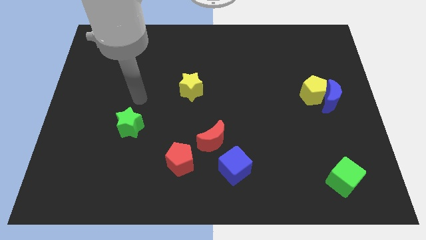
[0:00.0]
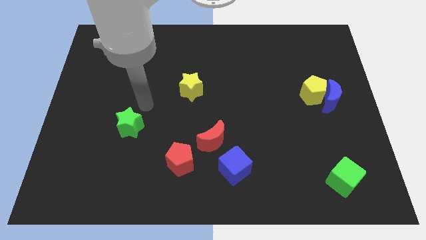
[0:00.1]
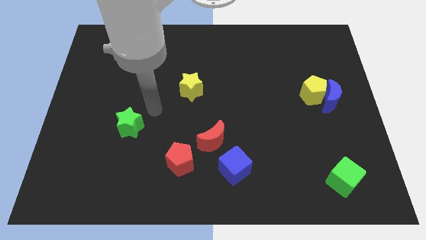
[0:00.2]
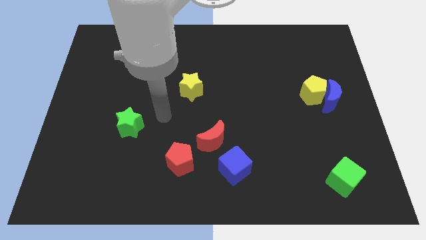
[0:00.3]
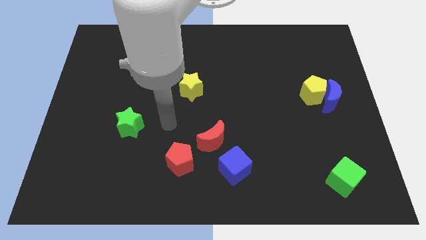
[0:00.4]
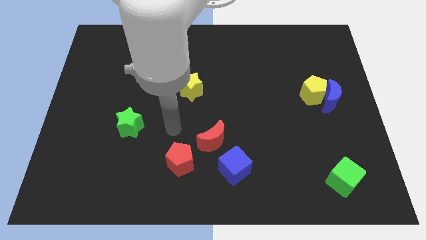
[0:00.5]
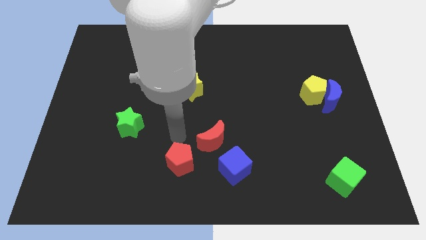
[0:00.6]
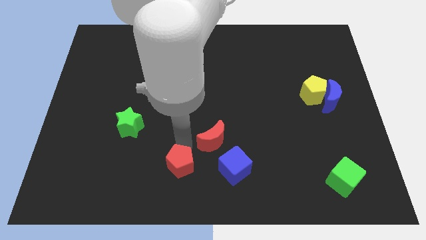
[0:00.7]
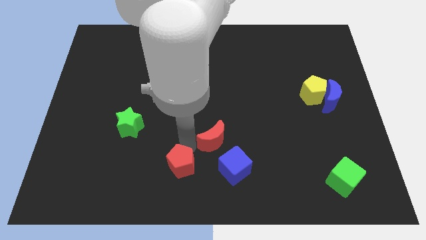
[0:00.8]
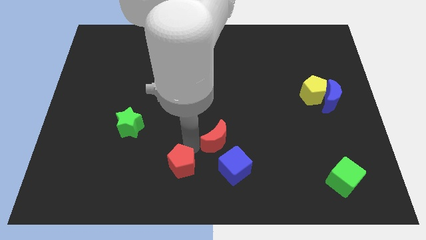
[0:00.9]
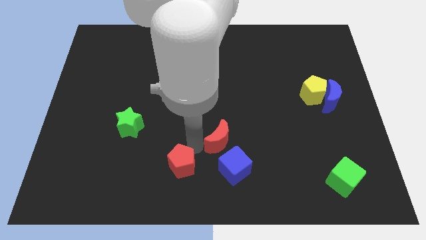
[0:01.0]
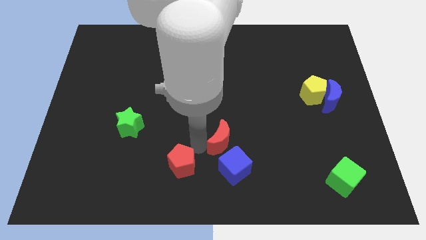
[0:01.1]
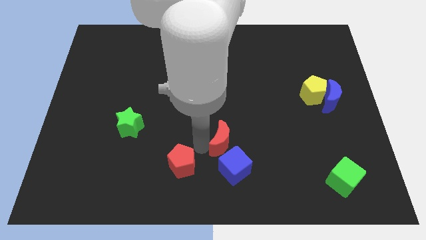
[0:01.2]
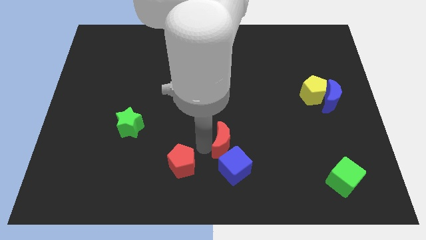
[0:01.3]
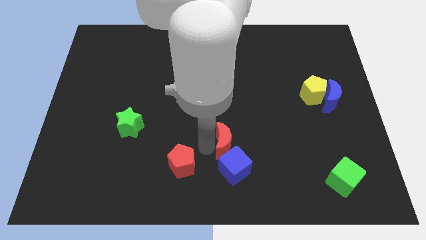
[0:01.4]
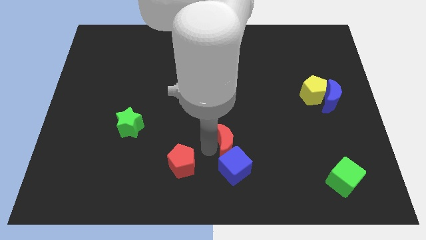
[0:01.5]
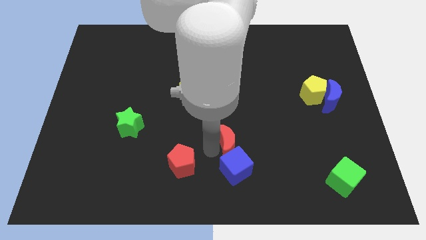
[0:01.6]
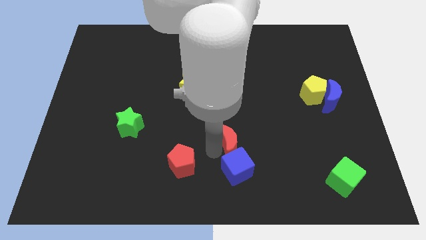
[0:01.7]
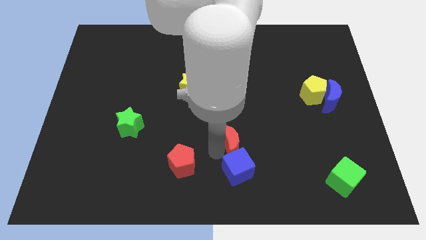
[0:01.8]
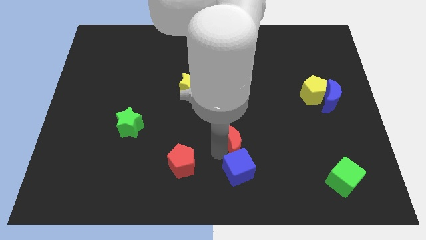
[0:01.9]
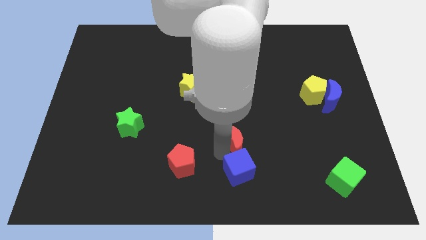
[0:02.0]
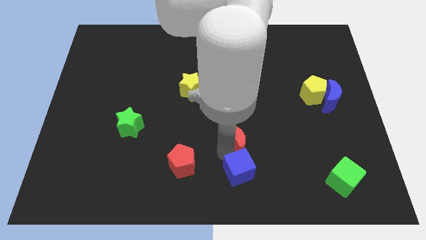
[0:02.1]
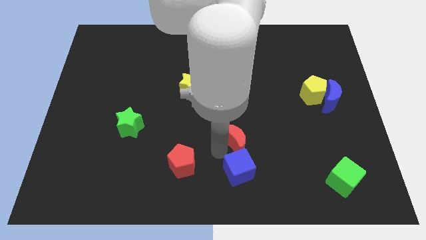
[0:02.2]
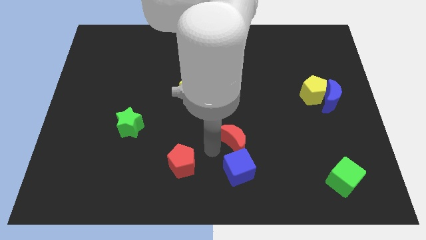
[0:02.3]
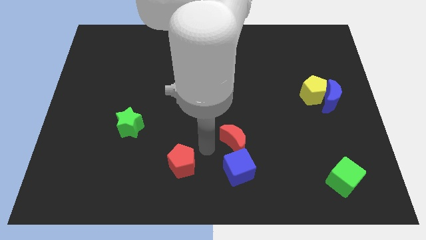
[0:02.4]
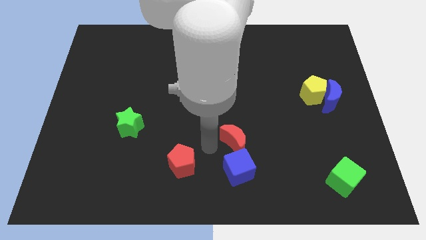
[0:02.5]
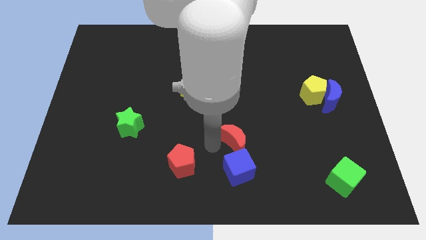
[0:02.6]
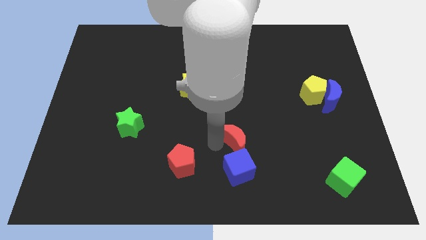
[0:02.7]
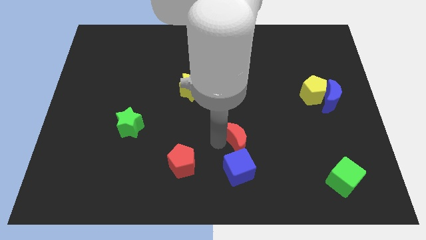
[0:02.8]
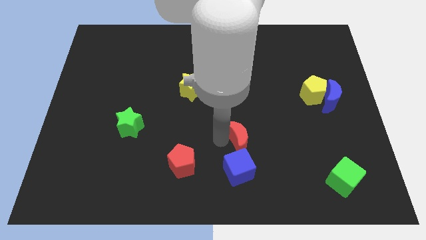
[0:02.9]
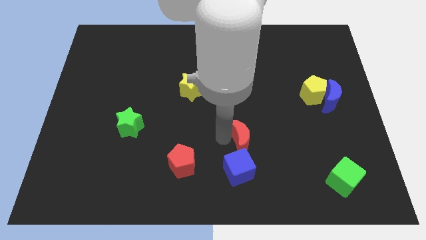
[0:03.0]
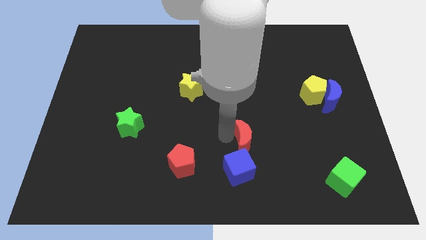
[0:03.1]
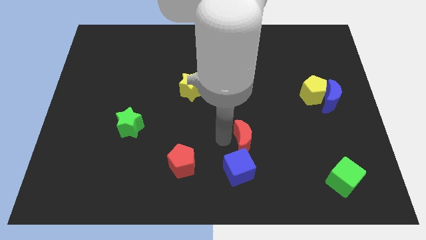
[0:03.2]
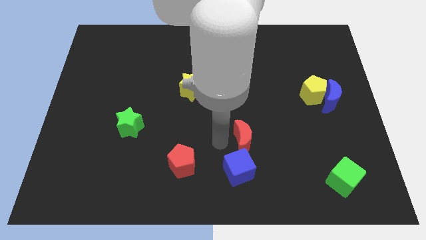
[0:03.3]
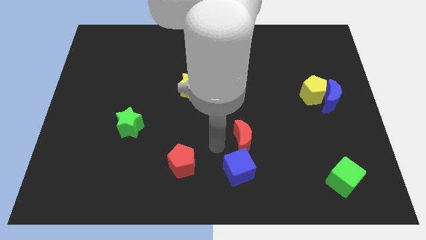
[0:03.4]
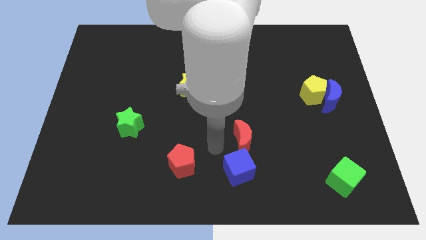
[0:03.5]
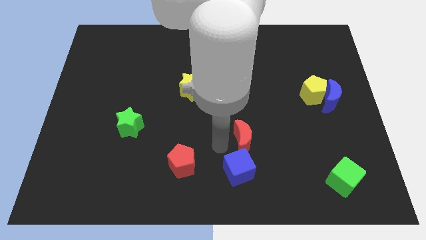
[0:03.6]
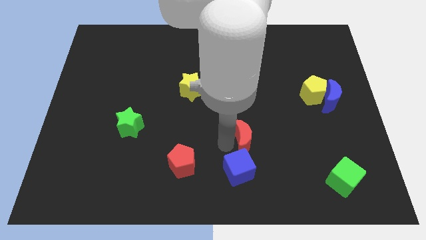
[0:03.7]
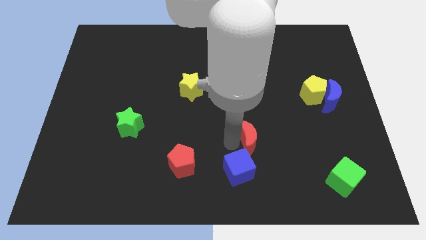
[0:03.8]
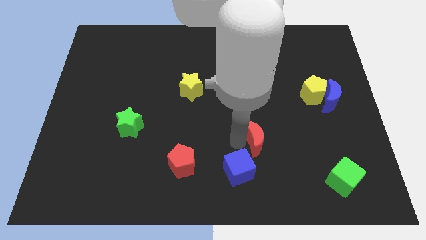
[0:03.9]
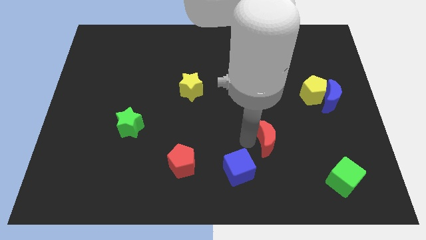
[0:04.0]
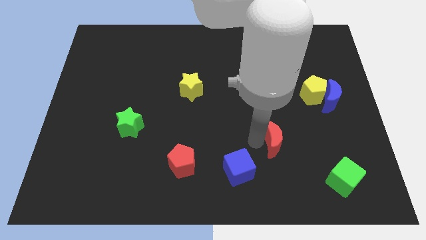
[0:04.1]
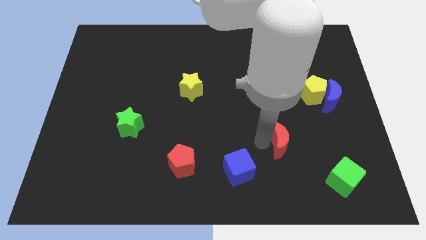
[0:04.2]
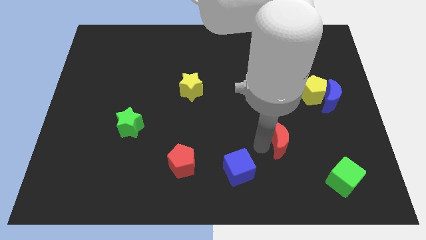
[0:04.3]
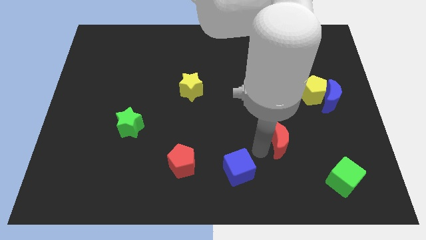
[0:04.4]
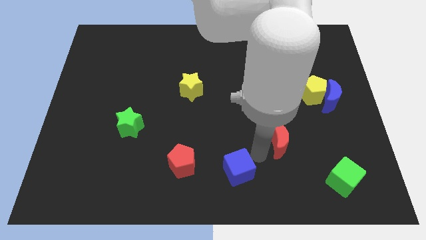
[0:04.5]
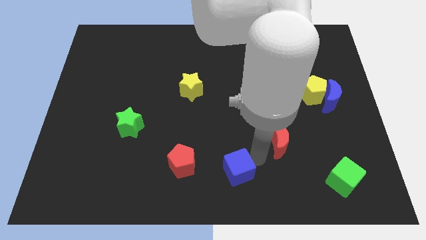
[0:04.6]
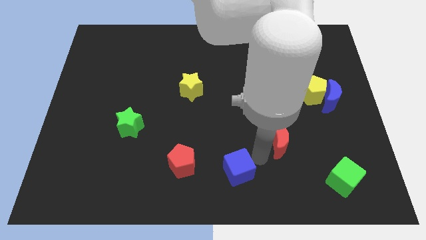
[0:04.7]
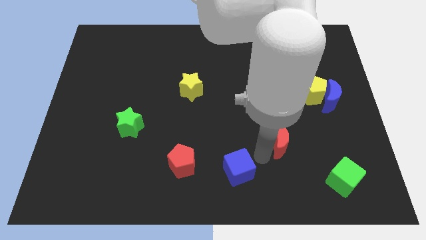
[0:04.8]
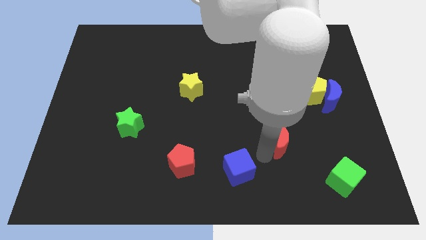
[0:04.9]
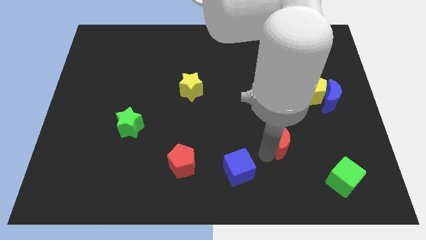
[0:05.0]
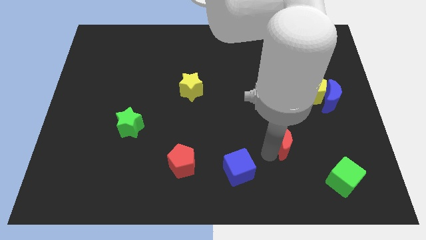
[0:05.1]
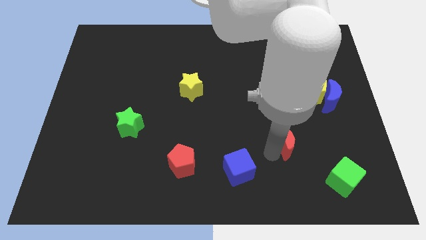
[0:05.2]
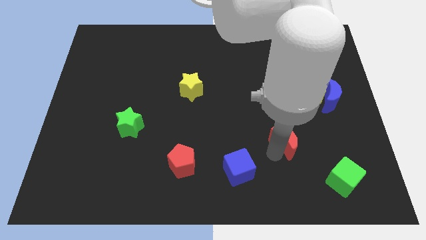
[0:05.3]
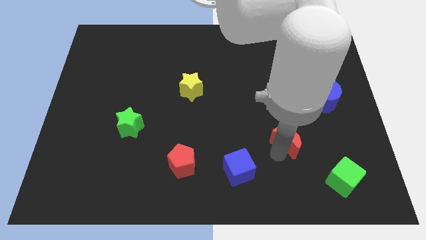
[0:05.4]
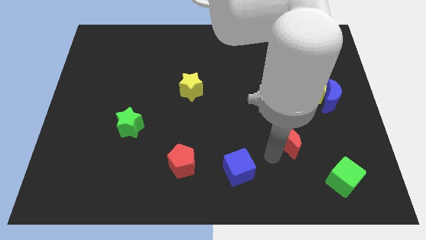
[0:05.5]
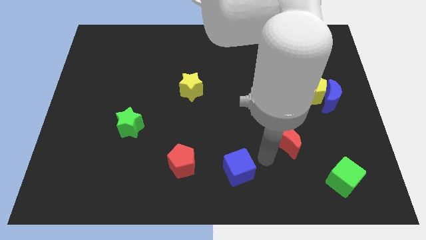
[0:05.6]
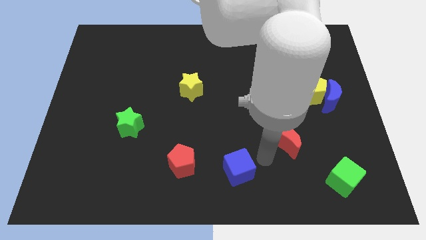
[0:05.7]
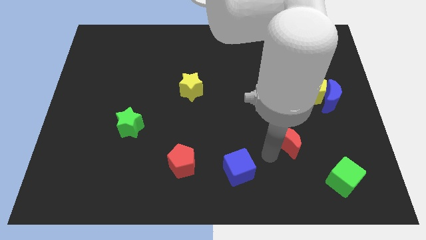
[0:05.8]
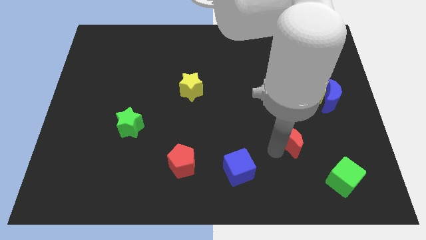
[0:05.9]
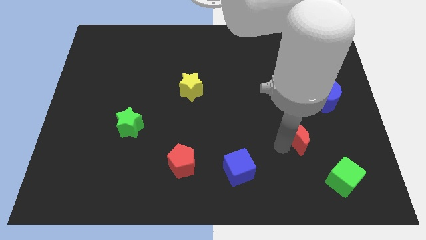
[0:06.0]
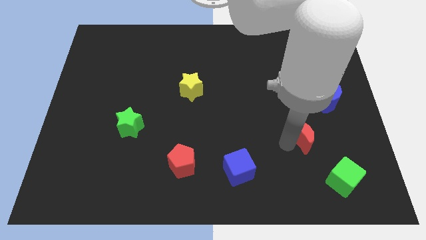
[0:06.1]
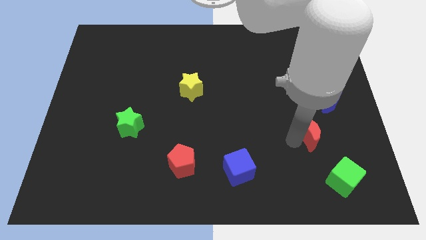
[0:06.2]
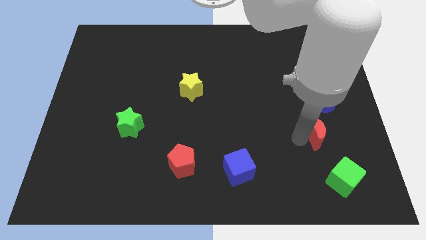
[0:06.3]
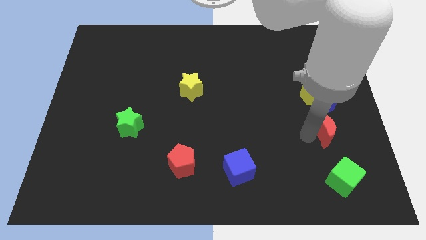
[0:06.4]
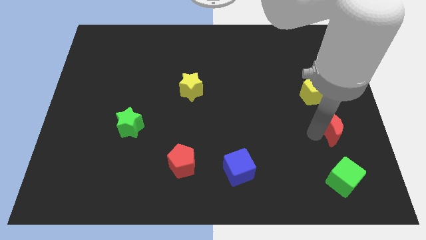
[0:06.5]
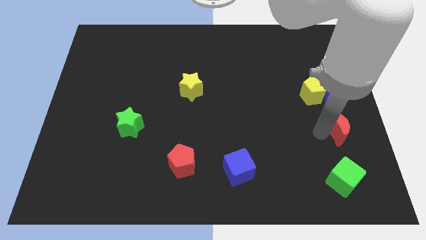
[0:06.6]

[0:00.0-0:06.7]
put the red moon to the right side
